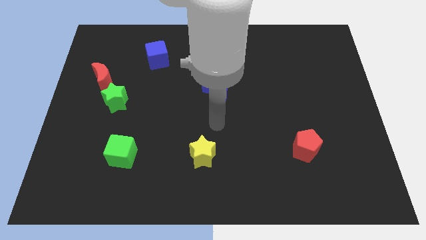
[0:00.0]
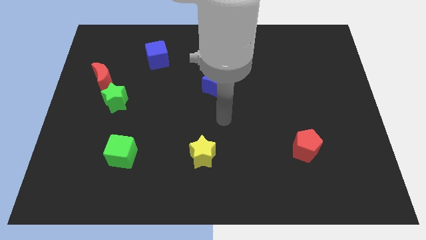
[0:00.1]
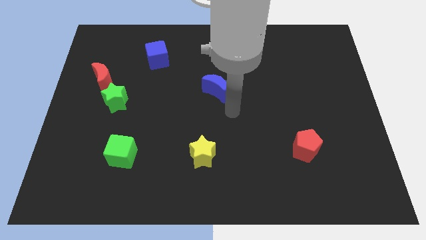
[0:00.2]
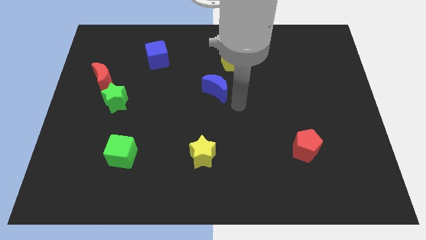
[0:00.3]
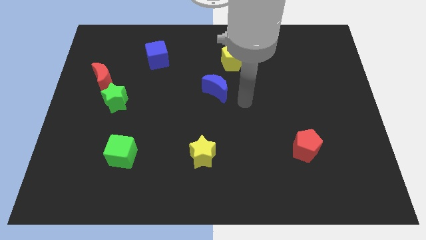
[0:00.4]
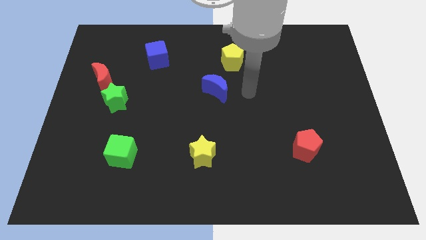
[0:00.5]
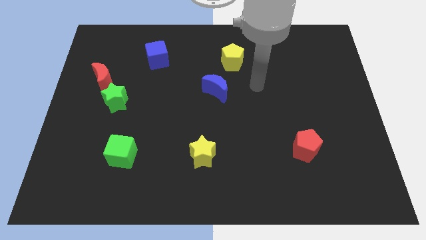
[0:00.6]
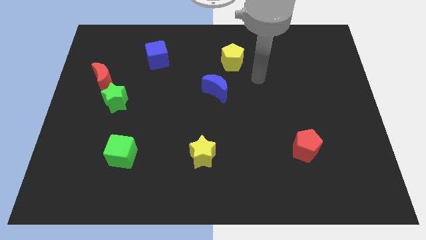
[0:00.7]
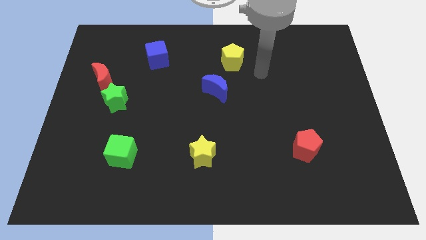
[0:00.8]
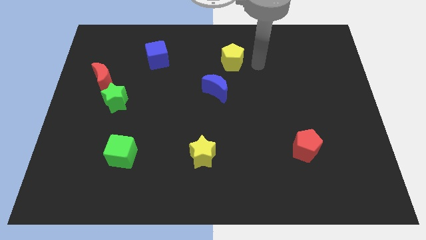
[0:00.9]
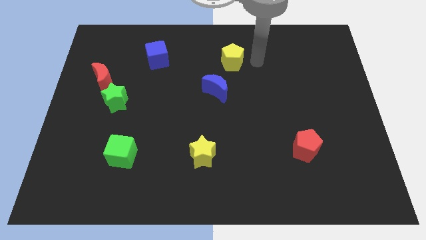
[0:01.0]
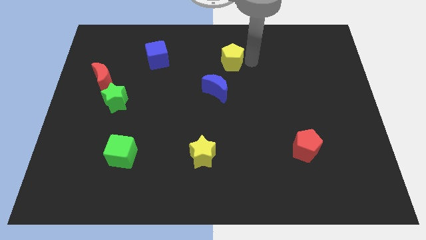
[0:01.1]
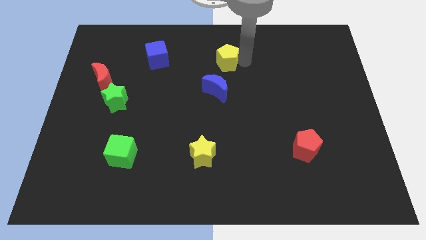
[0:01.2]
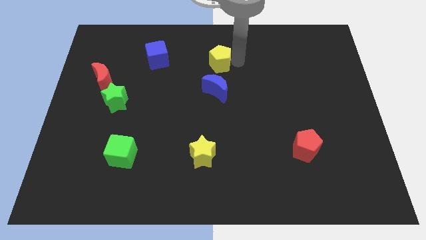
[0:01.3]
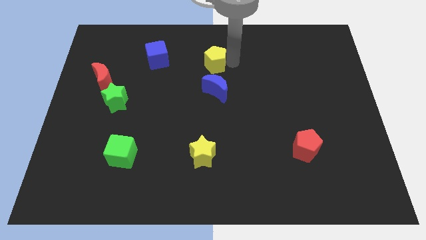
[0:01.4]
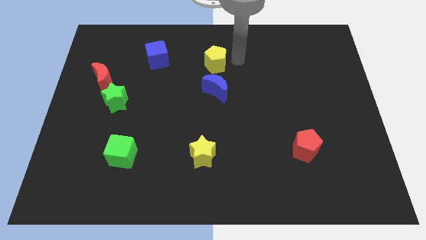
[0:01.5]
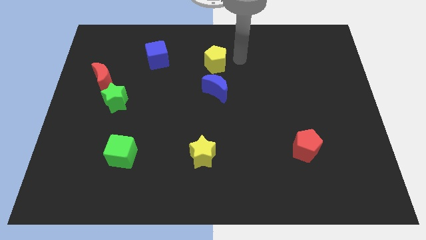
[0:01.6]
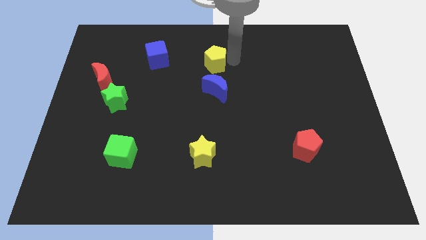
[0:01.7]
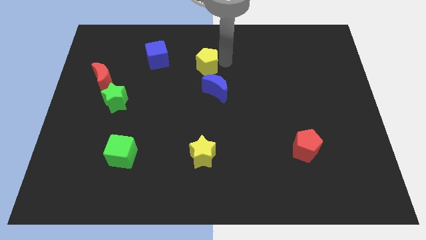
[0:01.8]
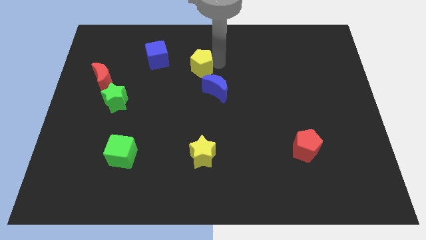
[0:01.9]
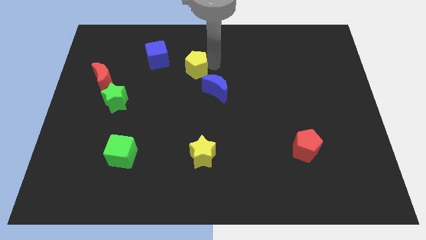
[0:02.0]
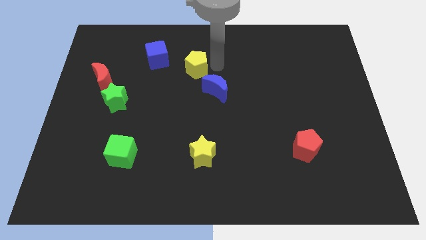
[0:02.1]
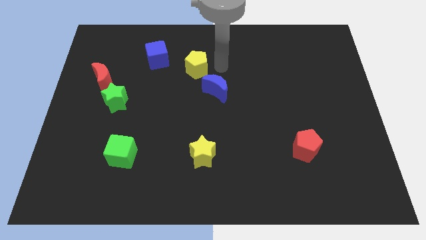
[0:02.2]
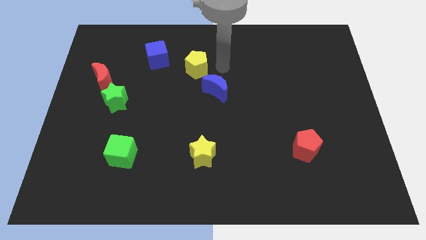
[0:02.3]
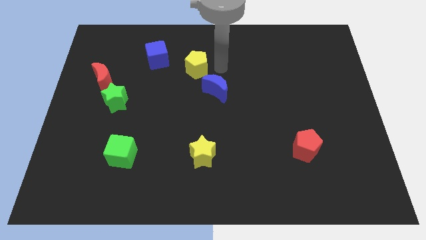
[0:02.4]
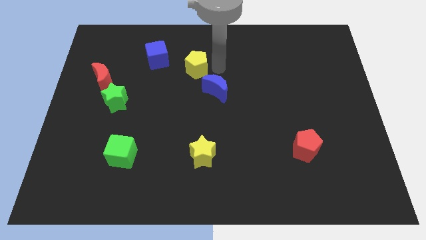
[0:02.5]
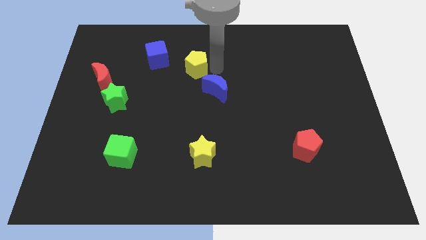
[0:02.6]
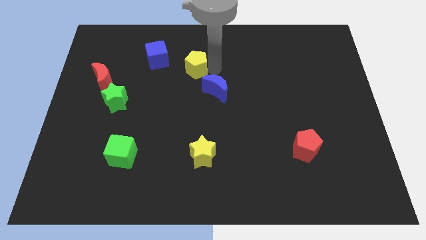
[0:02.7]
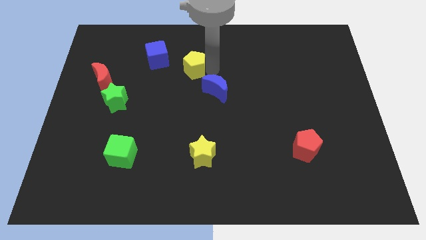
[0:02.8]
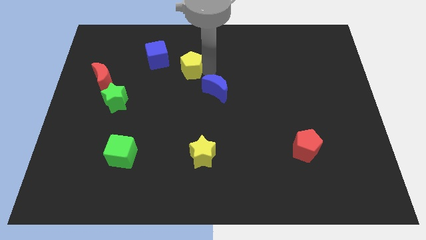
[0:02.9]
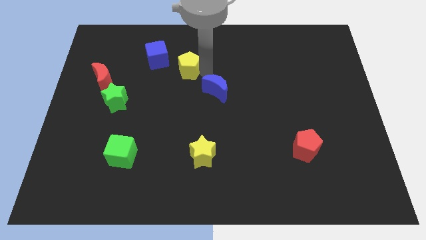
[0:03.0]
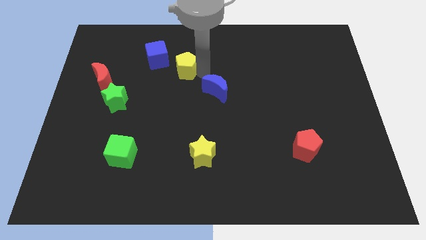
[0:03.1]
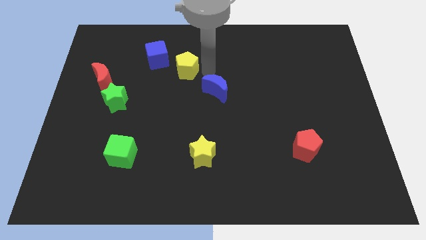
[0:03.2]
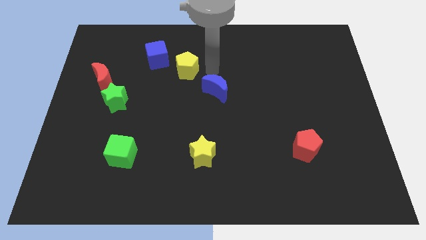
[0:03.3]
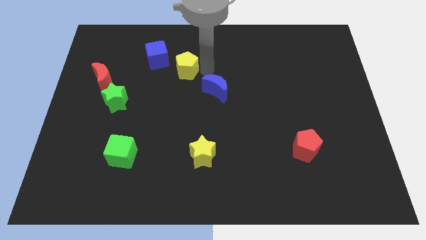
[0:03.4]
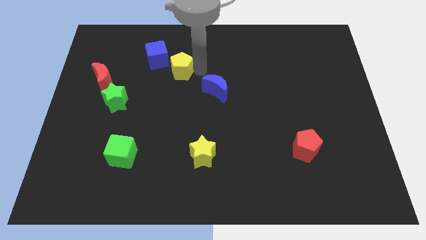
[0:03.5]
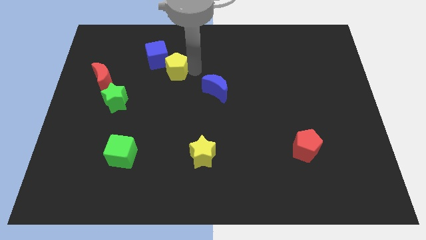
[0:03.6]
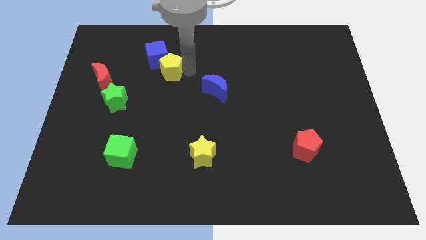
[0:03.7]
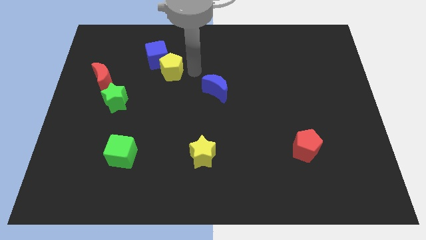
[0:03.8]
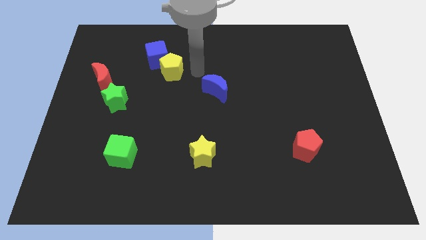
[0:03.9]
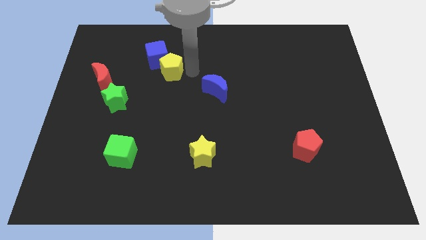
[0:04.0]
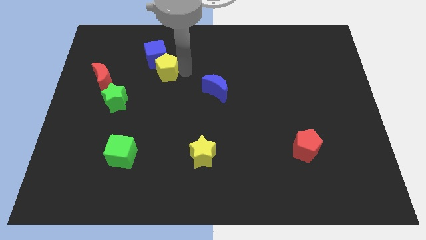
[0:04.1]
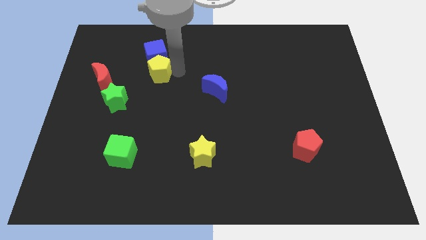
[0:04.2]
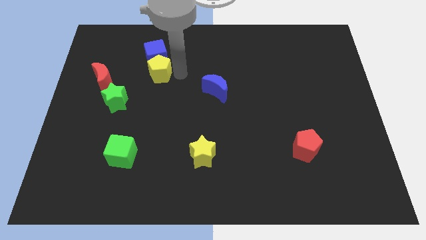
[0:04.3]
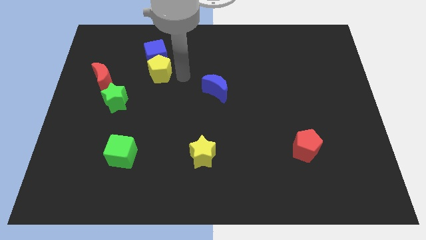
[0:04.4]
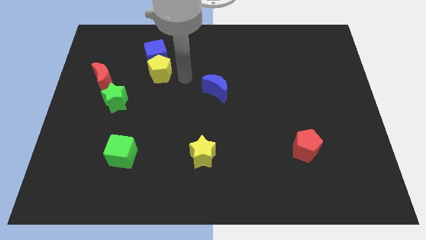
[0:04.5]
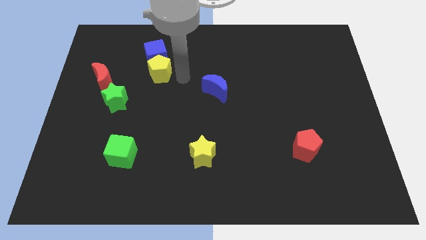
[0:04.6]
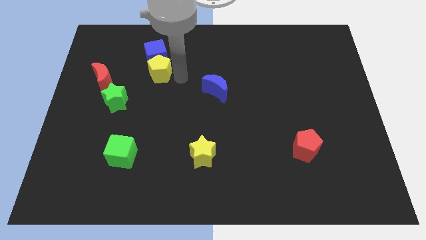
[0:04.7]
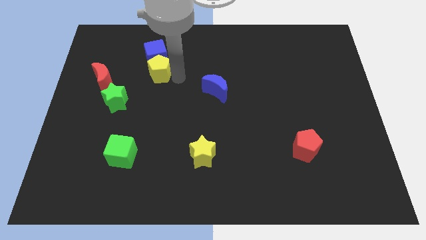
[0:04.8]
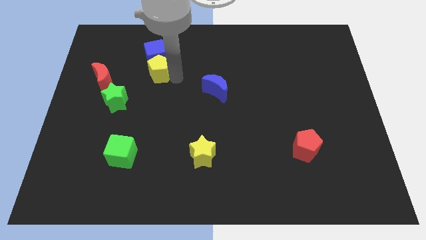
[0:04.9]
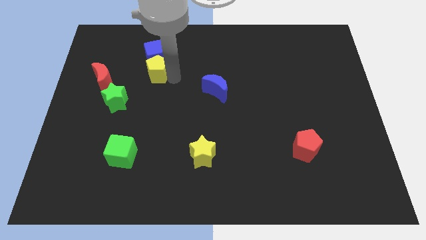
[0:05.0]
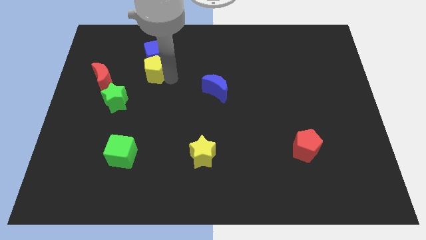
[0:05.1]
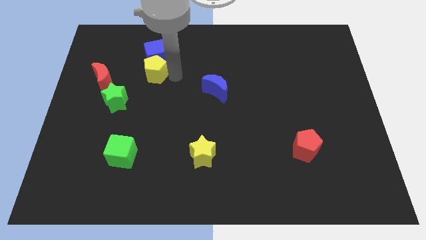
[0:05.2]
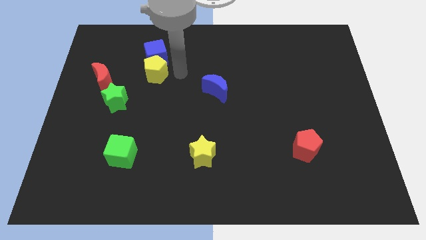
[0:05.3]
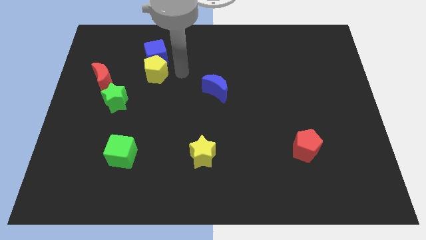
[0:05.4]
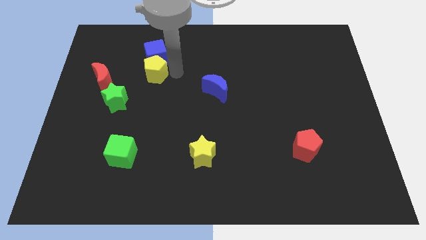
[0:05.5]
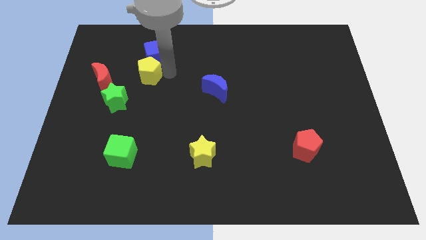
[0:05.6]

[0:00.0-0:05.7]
push the yellow pentagon to the left

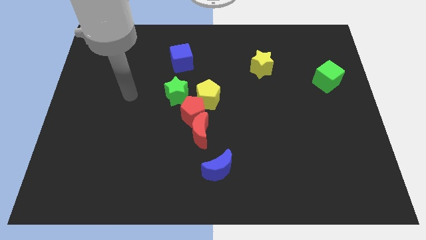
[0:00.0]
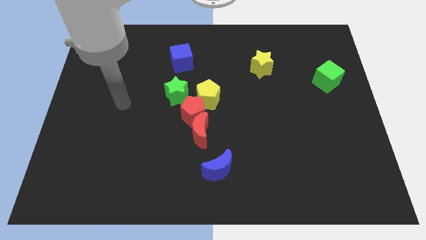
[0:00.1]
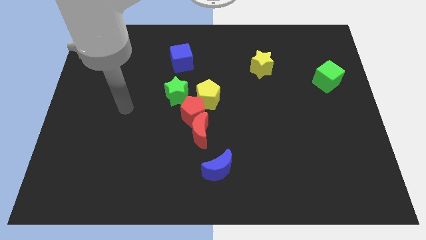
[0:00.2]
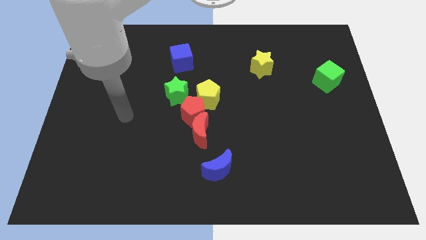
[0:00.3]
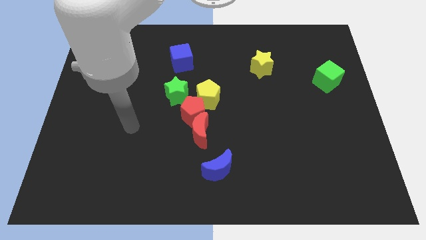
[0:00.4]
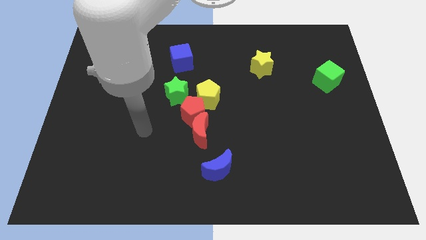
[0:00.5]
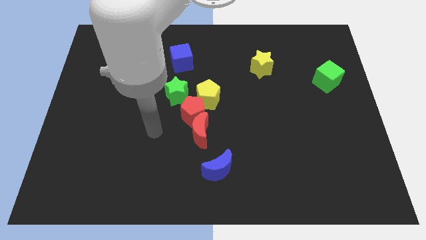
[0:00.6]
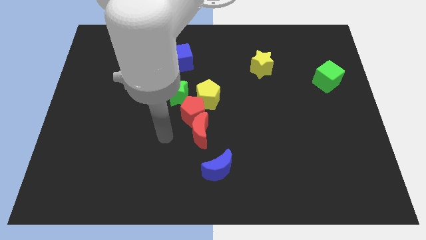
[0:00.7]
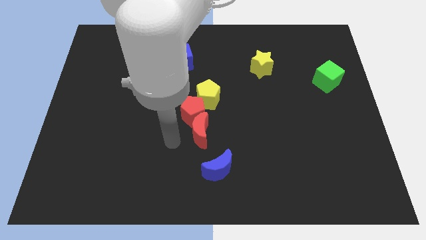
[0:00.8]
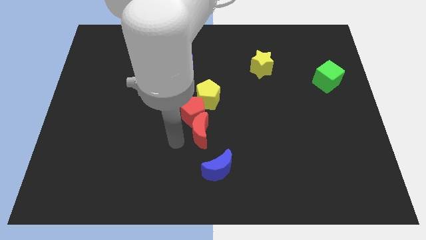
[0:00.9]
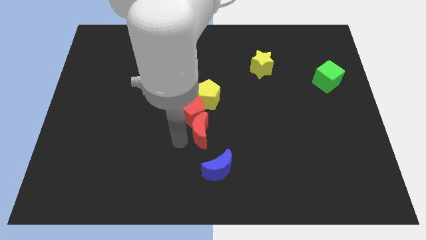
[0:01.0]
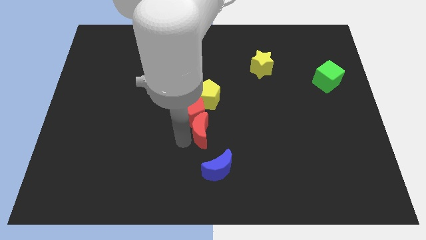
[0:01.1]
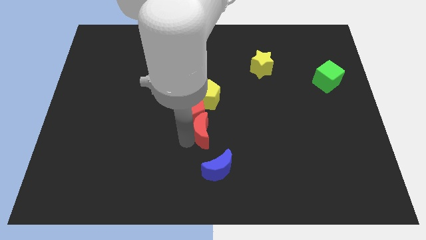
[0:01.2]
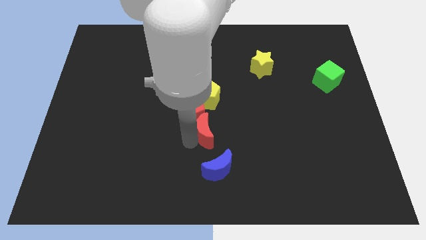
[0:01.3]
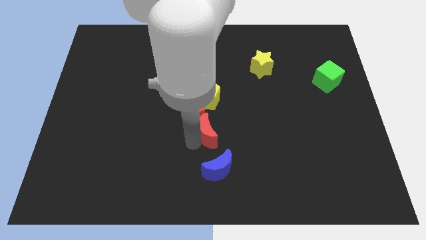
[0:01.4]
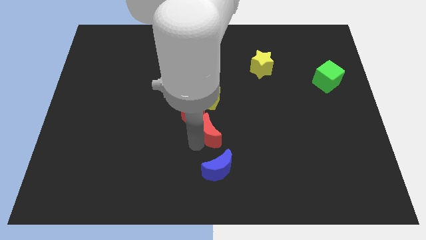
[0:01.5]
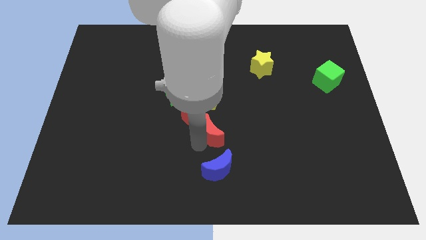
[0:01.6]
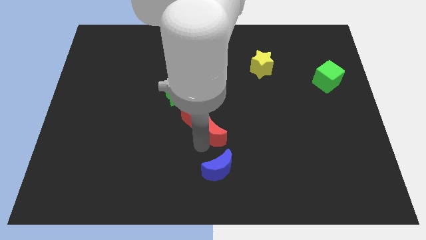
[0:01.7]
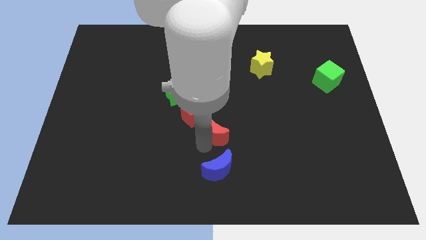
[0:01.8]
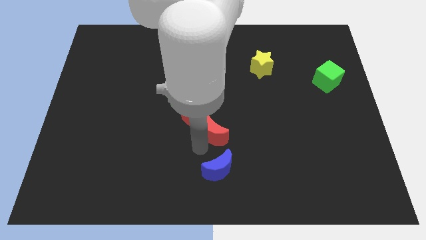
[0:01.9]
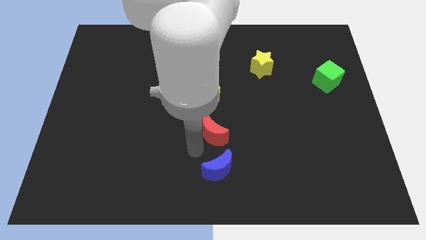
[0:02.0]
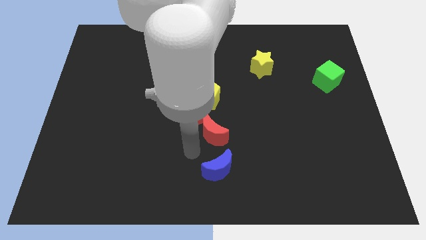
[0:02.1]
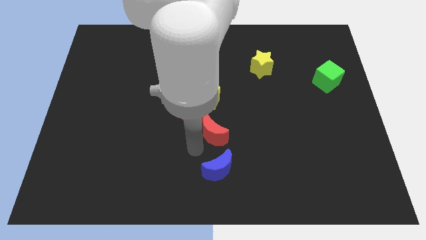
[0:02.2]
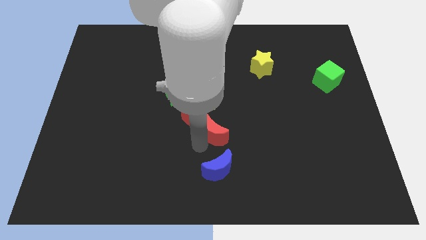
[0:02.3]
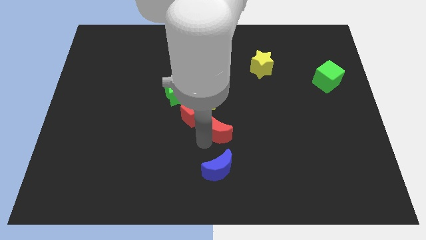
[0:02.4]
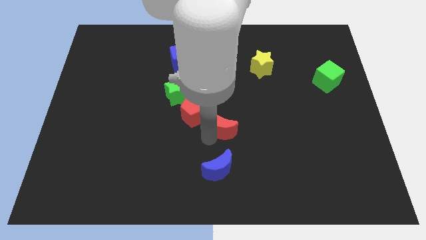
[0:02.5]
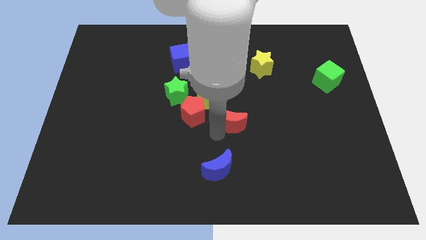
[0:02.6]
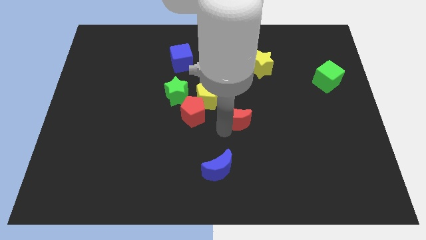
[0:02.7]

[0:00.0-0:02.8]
move the red moon a bit upwards and right
